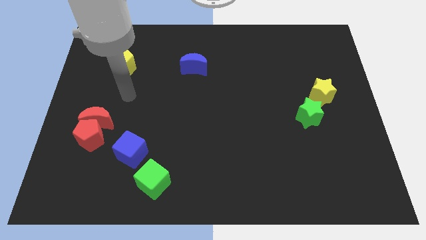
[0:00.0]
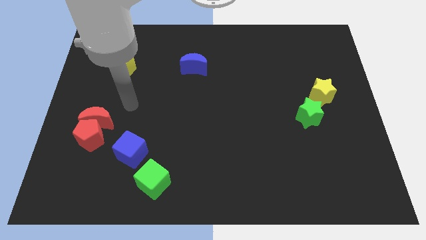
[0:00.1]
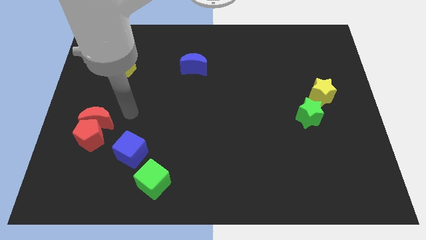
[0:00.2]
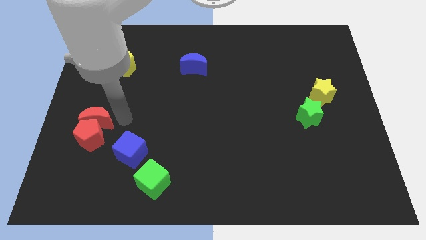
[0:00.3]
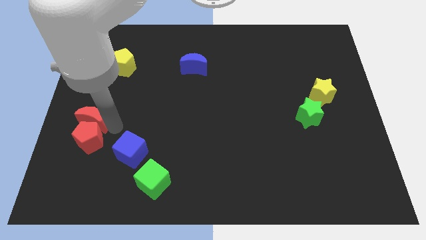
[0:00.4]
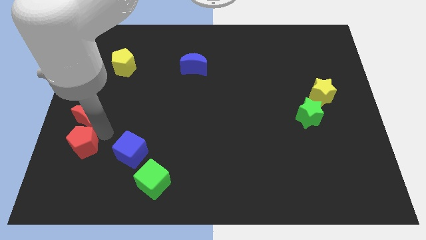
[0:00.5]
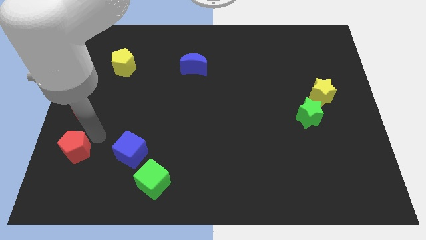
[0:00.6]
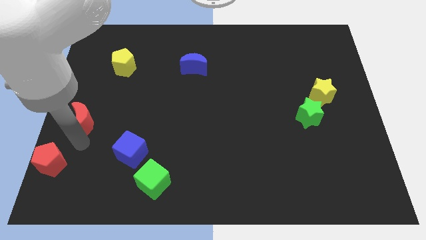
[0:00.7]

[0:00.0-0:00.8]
move the red moon away from the red pentagon

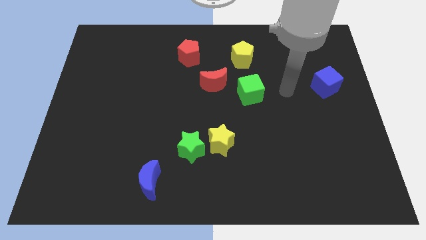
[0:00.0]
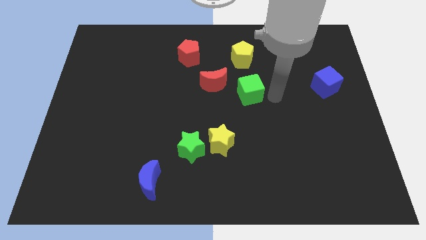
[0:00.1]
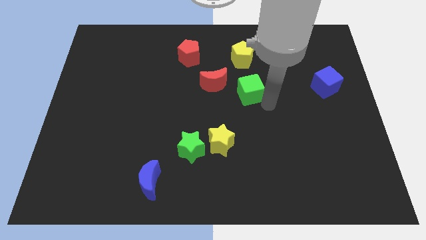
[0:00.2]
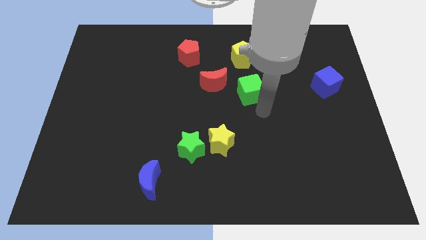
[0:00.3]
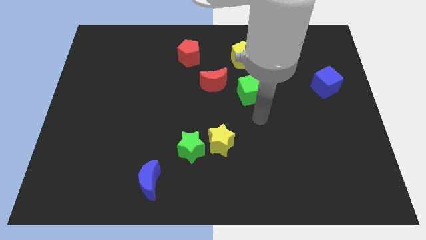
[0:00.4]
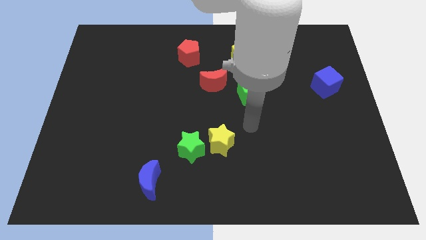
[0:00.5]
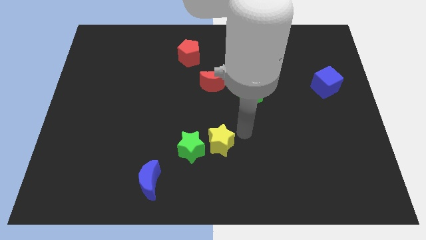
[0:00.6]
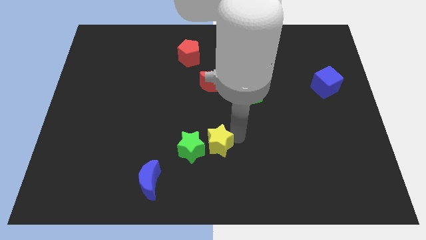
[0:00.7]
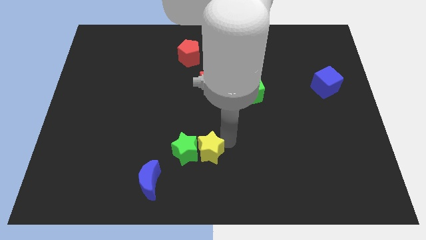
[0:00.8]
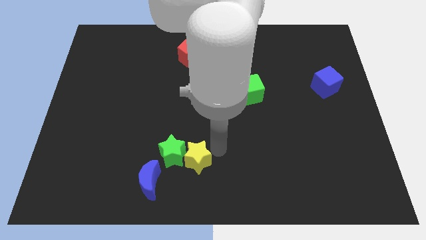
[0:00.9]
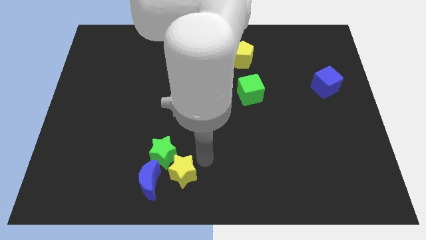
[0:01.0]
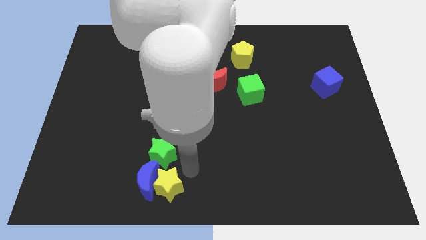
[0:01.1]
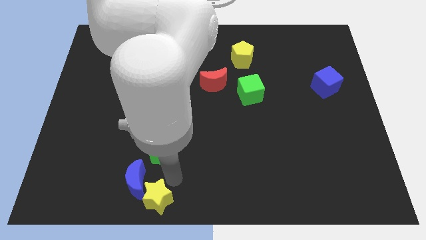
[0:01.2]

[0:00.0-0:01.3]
separate the green star from the yellow star

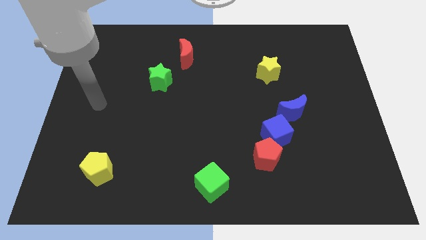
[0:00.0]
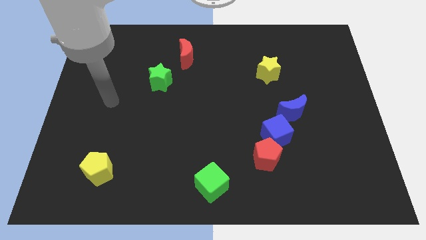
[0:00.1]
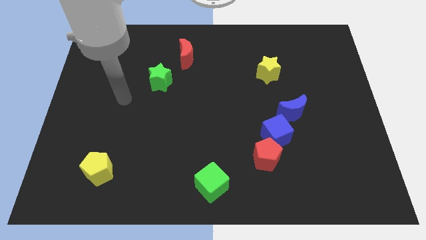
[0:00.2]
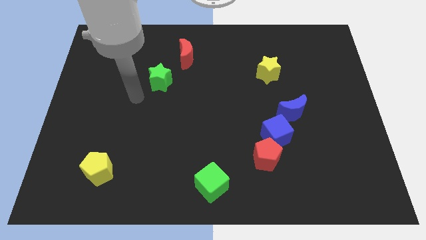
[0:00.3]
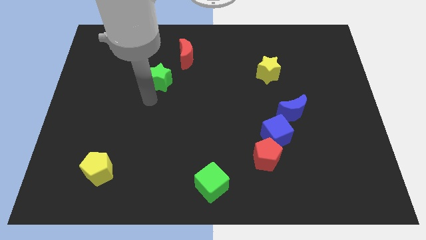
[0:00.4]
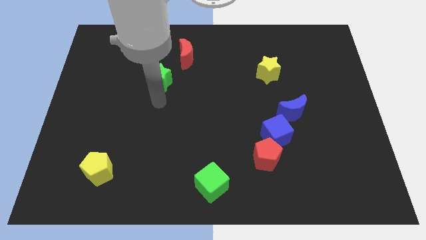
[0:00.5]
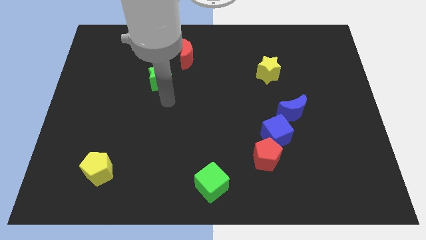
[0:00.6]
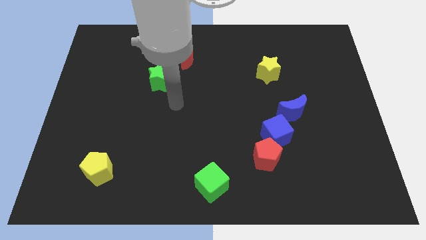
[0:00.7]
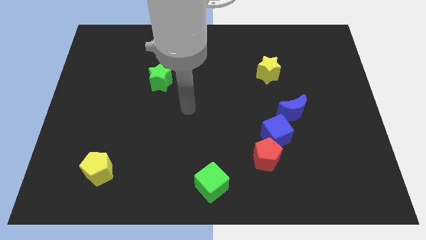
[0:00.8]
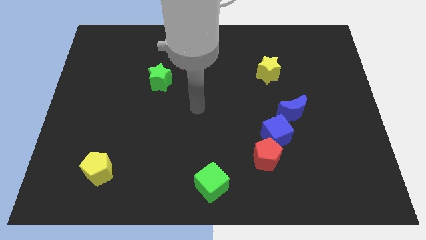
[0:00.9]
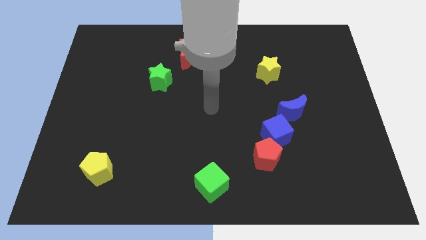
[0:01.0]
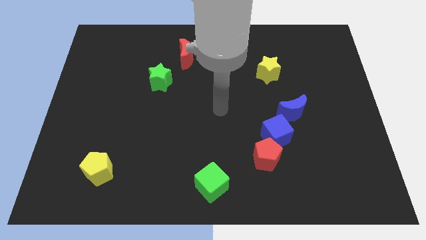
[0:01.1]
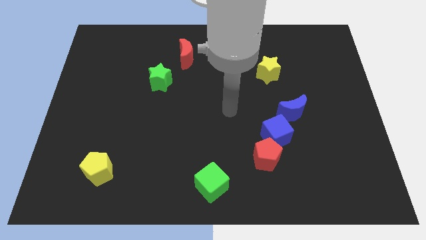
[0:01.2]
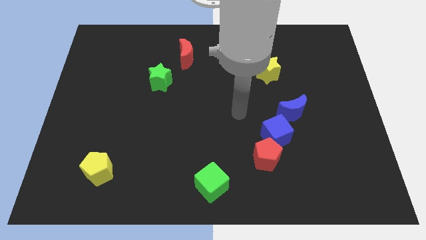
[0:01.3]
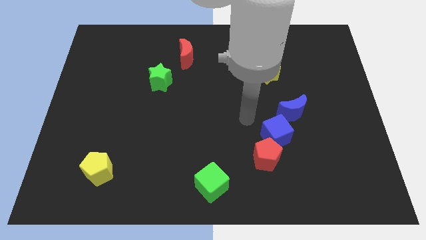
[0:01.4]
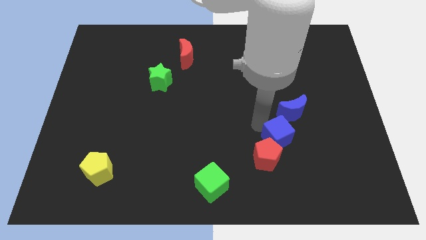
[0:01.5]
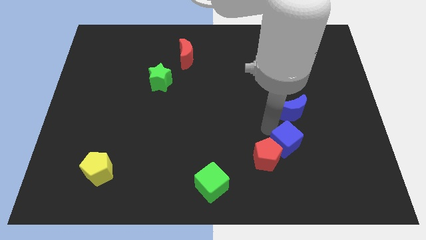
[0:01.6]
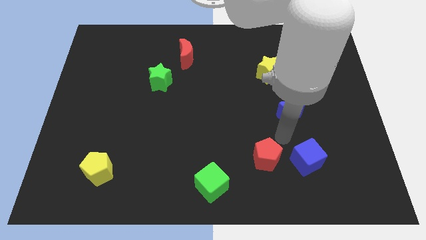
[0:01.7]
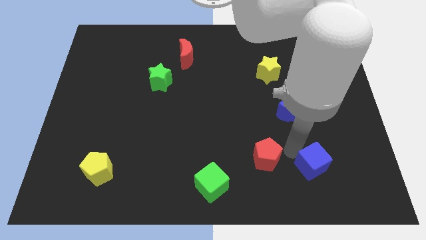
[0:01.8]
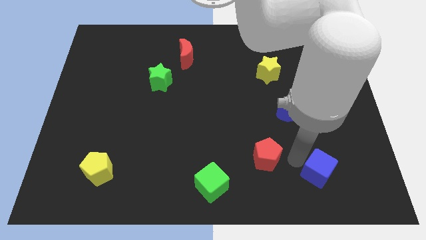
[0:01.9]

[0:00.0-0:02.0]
pull the red pentagon apart from the blue cube

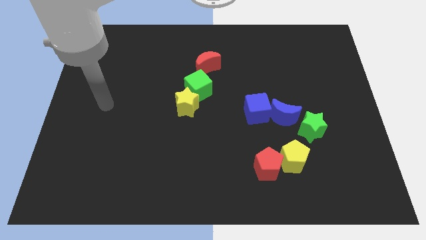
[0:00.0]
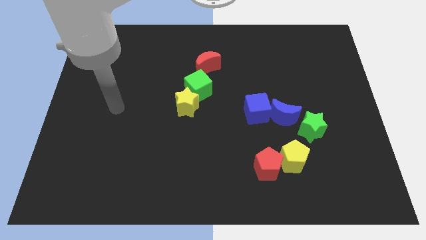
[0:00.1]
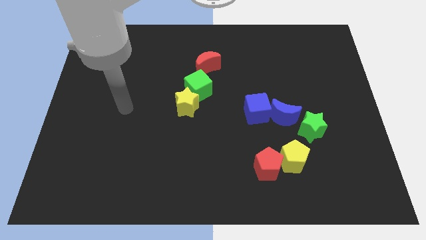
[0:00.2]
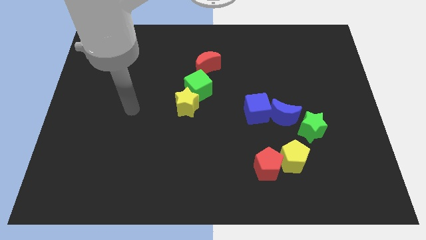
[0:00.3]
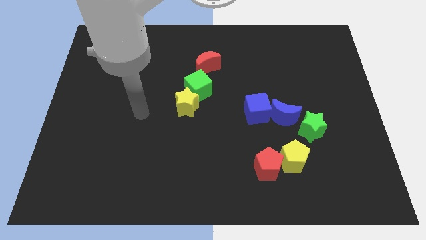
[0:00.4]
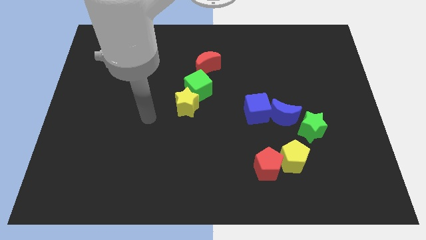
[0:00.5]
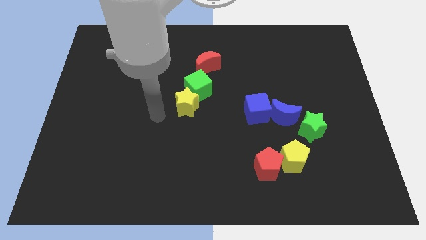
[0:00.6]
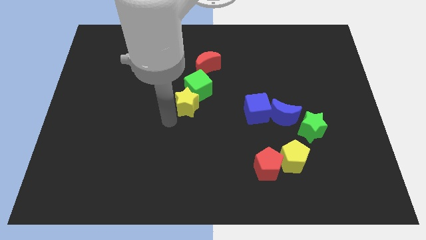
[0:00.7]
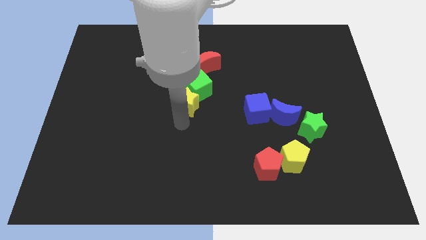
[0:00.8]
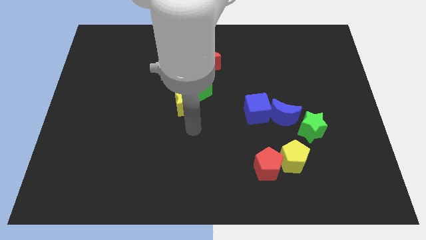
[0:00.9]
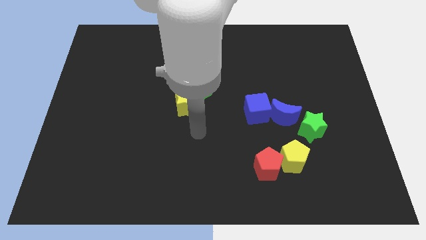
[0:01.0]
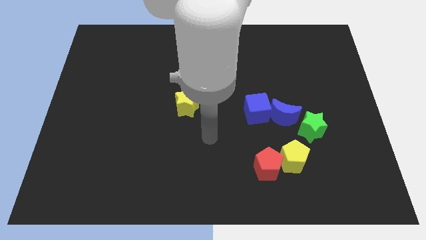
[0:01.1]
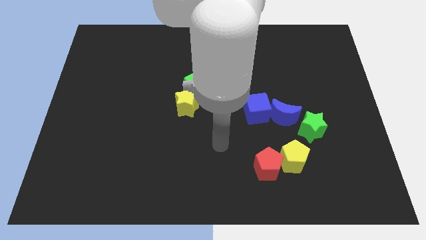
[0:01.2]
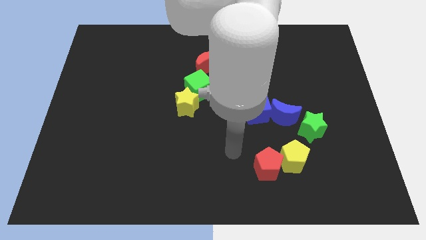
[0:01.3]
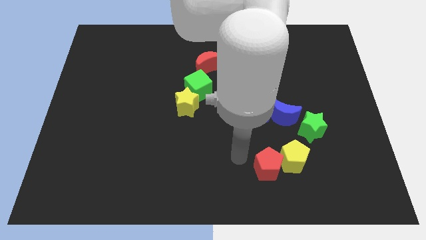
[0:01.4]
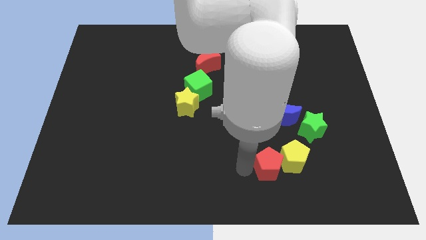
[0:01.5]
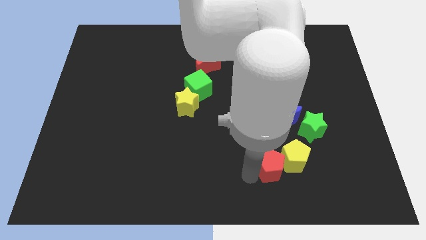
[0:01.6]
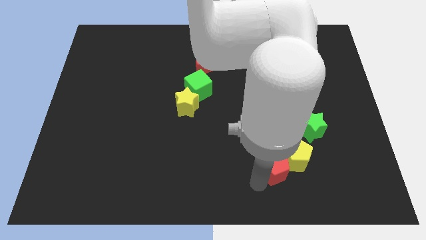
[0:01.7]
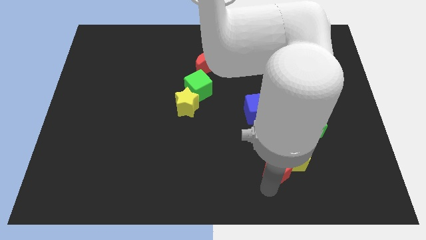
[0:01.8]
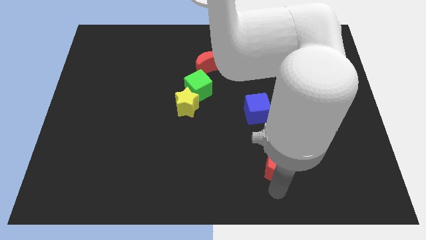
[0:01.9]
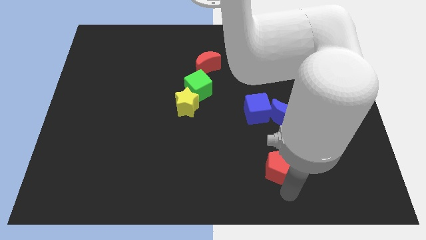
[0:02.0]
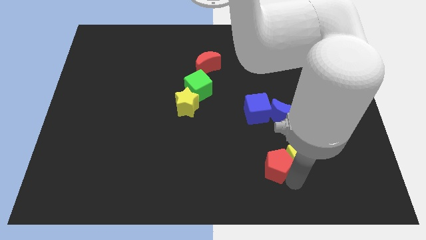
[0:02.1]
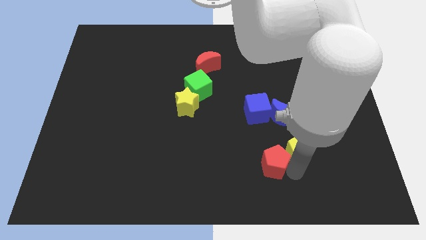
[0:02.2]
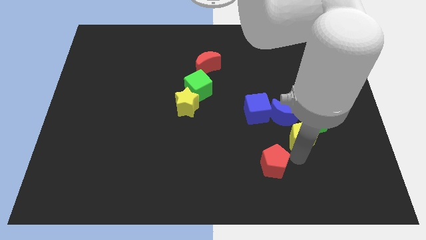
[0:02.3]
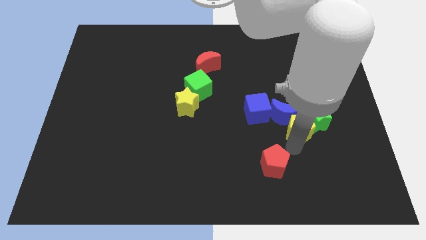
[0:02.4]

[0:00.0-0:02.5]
separate the red pentagon from the yellow pentagon

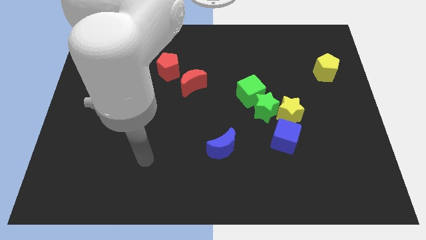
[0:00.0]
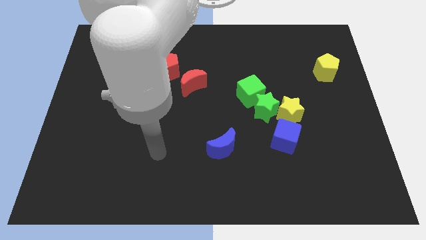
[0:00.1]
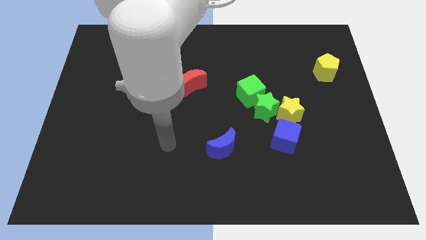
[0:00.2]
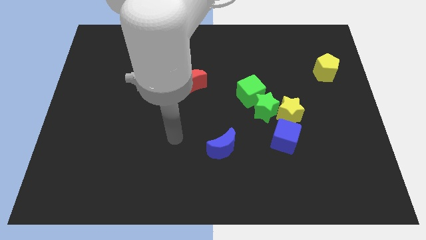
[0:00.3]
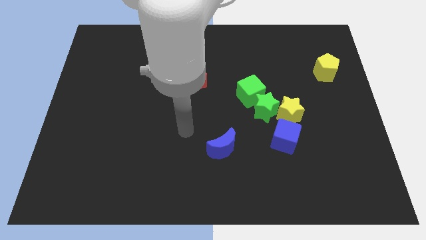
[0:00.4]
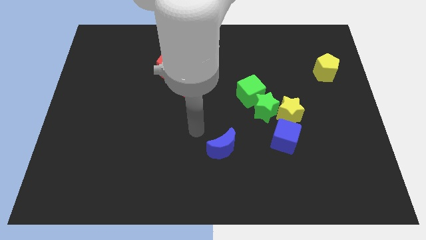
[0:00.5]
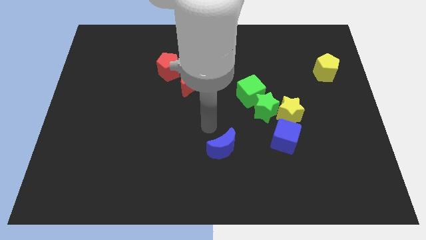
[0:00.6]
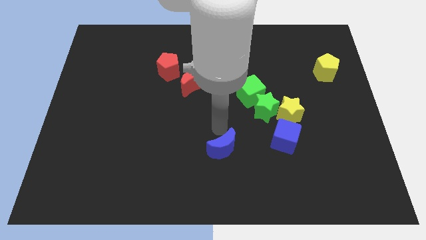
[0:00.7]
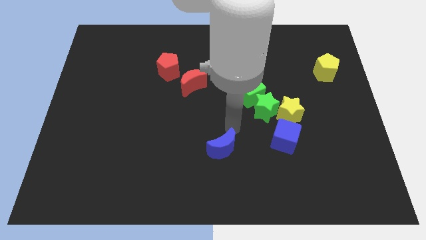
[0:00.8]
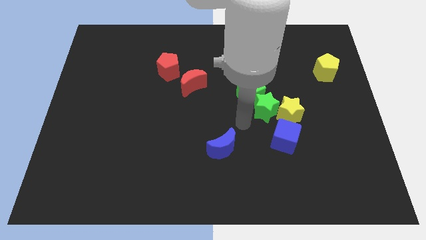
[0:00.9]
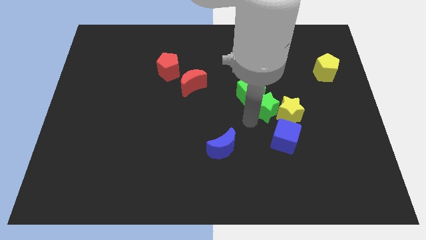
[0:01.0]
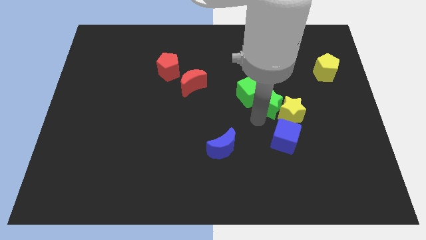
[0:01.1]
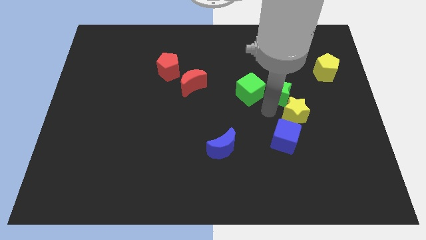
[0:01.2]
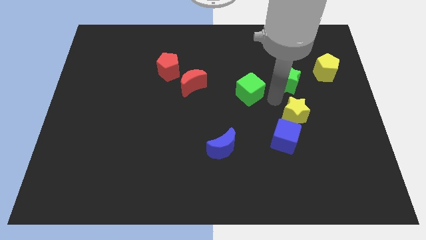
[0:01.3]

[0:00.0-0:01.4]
move the green cube away from the green star

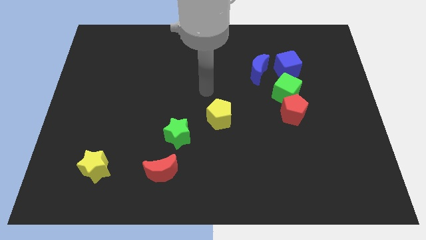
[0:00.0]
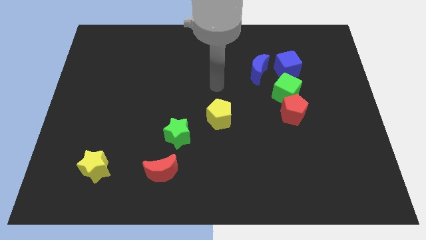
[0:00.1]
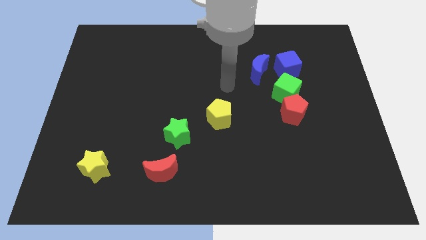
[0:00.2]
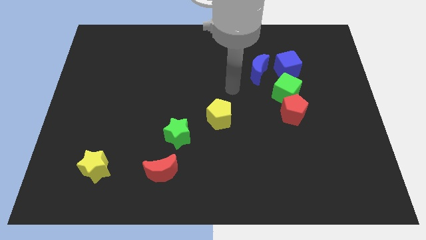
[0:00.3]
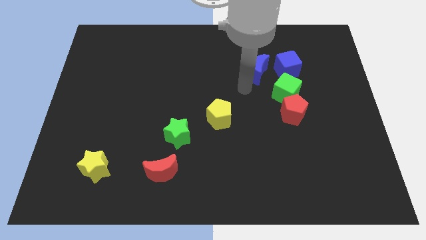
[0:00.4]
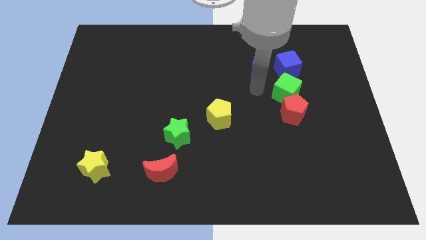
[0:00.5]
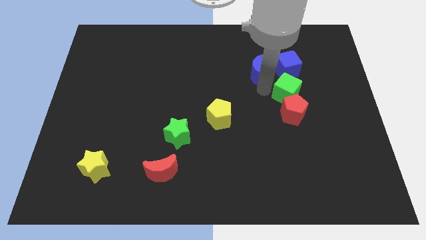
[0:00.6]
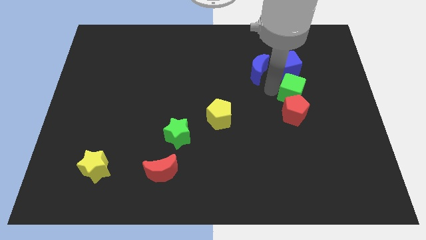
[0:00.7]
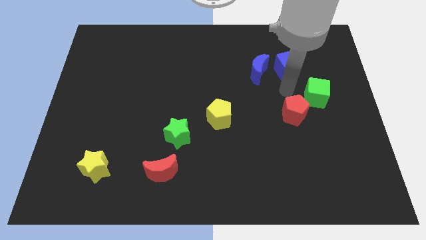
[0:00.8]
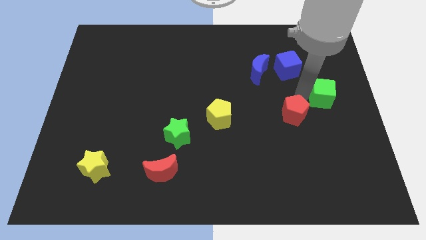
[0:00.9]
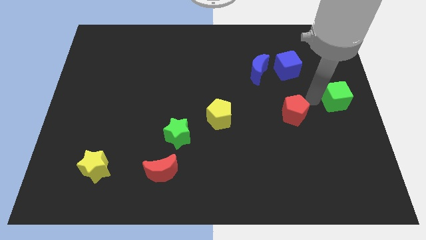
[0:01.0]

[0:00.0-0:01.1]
separate the red pentagon from the green cube

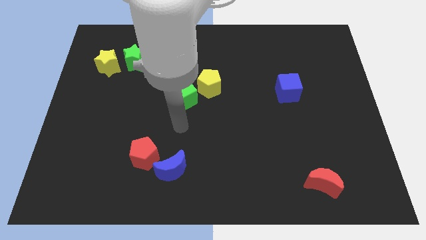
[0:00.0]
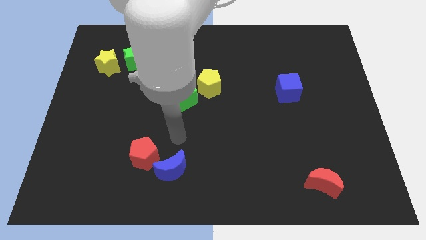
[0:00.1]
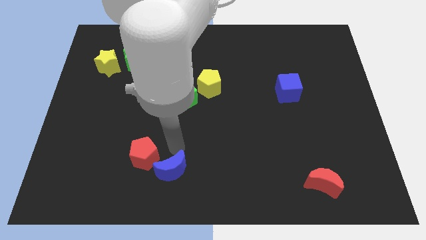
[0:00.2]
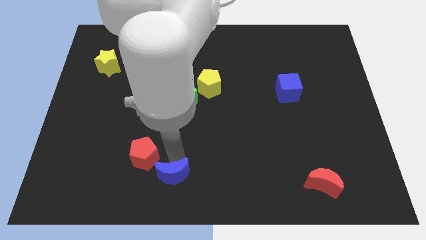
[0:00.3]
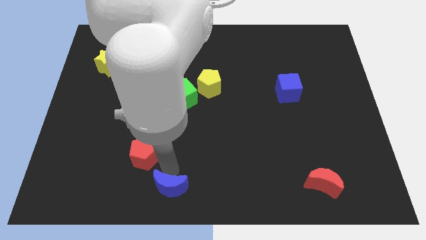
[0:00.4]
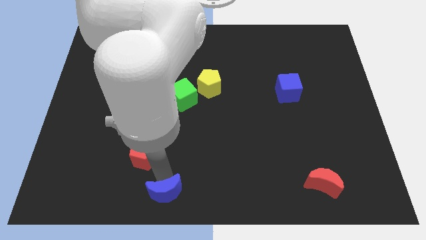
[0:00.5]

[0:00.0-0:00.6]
move the red pentagon away from the blue moon
